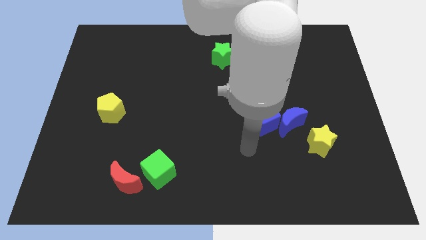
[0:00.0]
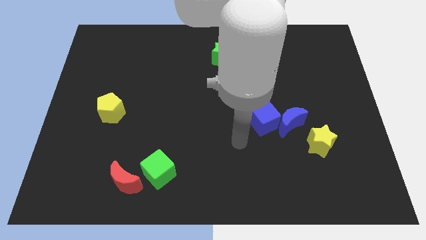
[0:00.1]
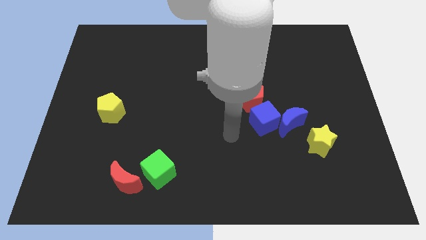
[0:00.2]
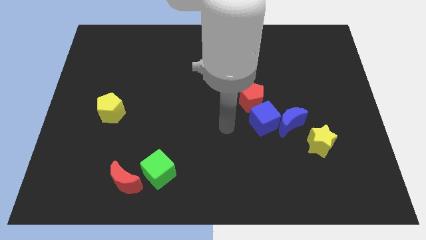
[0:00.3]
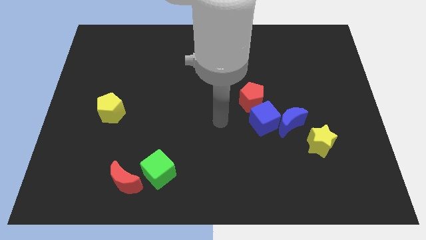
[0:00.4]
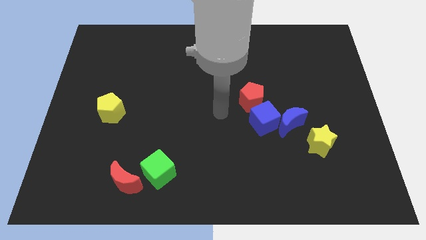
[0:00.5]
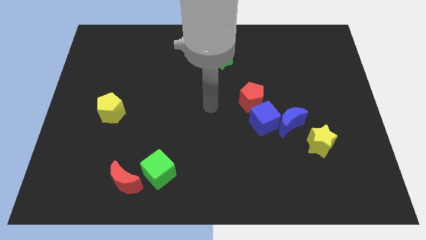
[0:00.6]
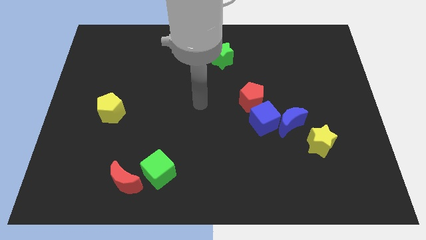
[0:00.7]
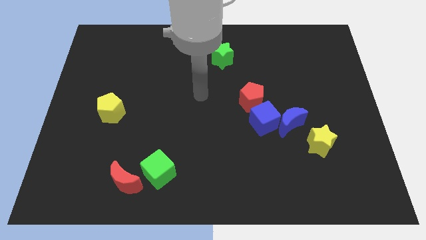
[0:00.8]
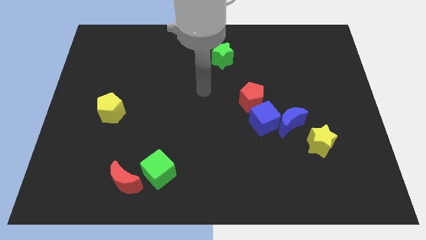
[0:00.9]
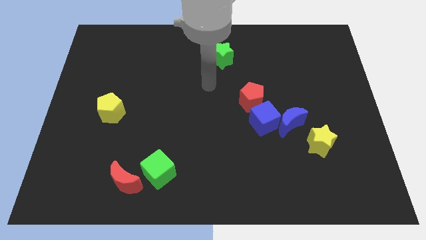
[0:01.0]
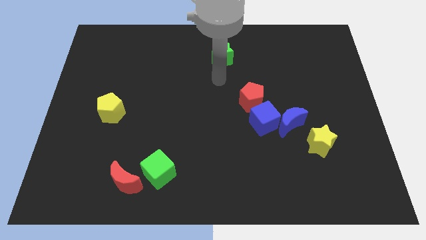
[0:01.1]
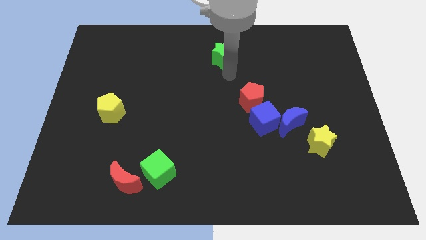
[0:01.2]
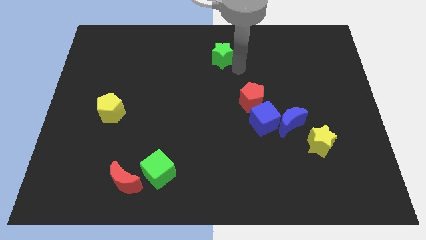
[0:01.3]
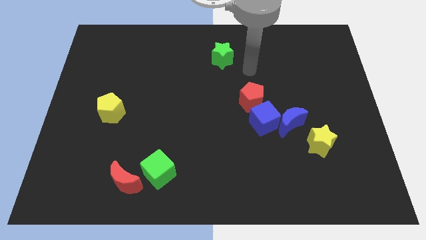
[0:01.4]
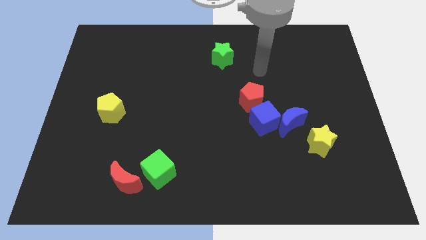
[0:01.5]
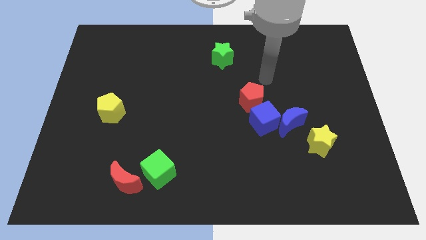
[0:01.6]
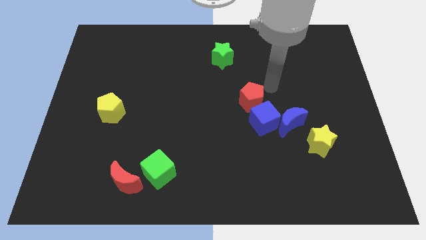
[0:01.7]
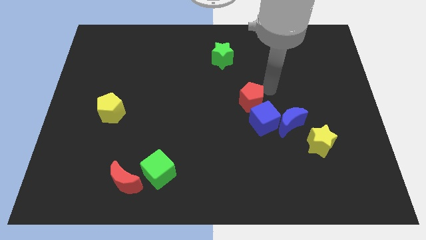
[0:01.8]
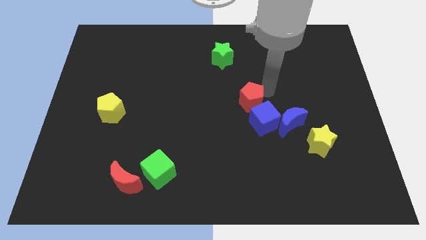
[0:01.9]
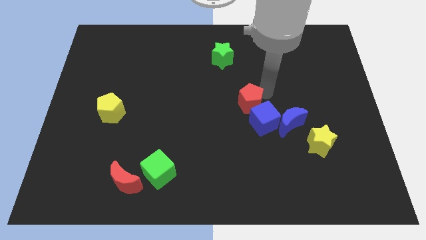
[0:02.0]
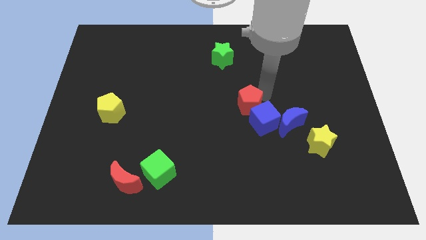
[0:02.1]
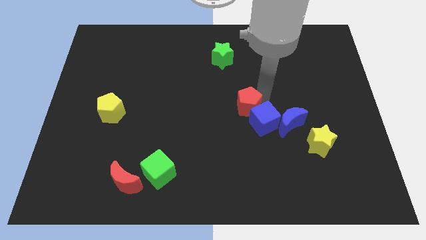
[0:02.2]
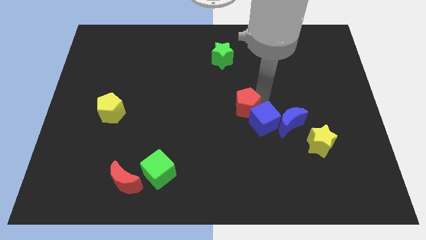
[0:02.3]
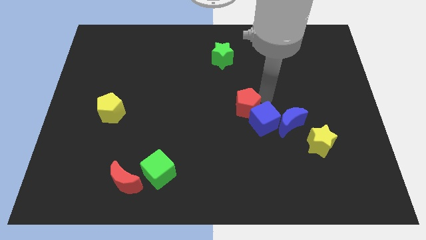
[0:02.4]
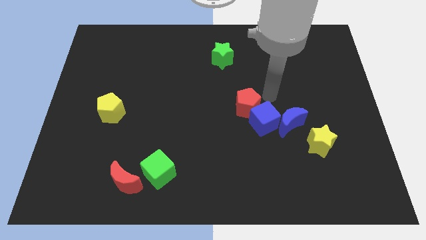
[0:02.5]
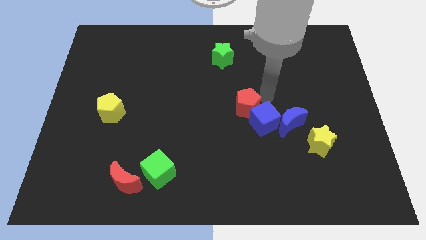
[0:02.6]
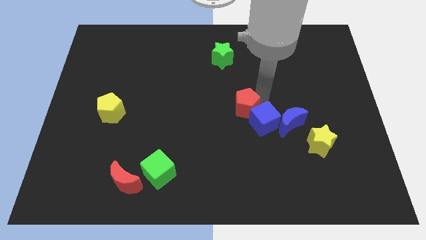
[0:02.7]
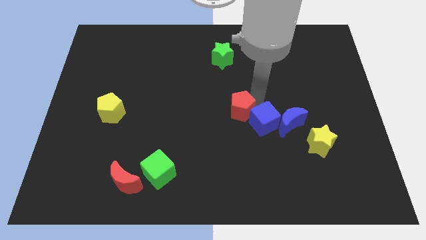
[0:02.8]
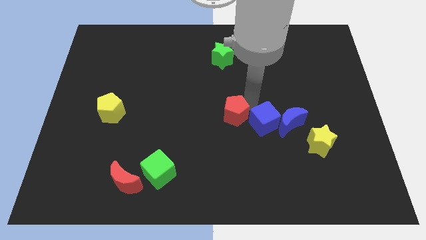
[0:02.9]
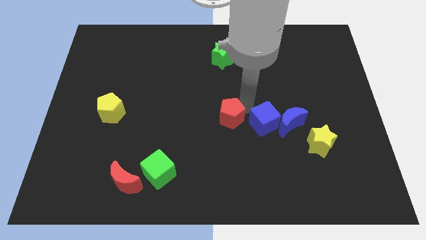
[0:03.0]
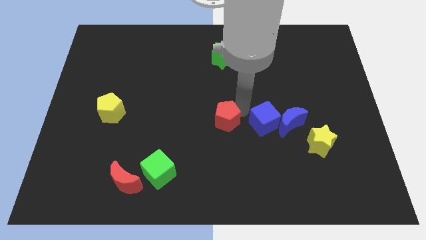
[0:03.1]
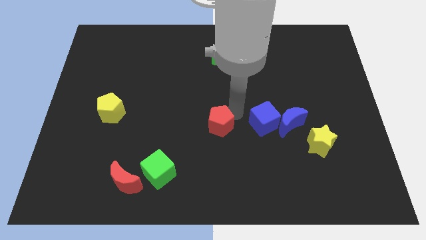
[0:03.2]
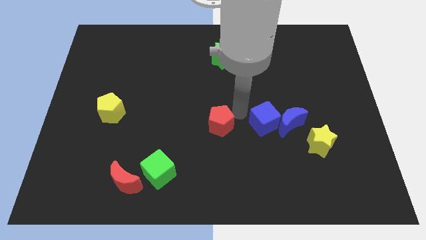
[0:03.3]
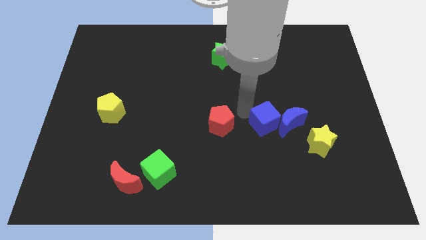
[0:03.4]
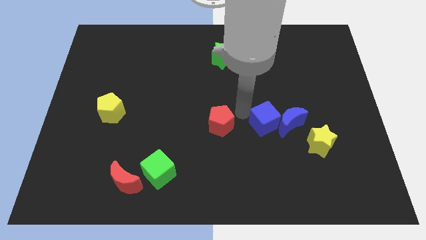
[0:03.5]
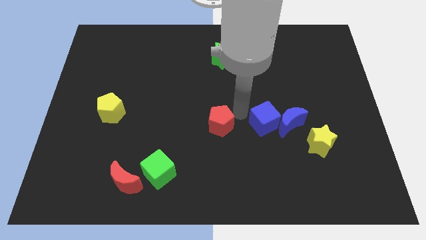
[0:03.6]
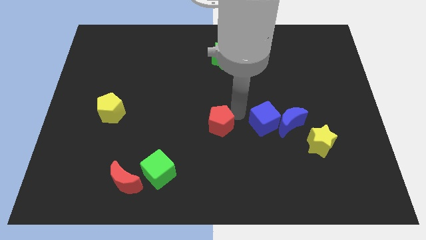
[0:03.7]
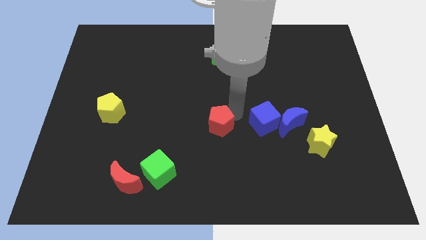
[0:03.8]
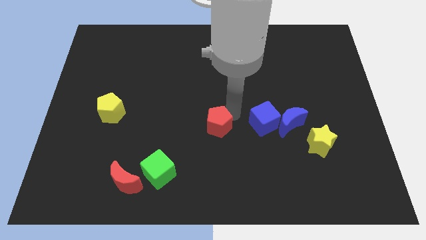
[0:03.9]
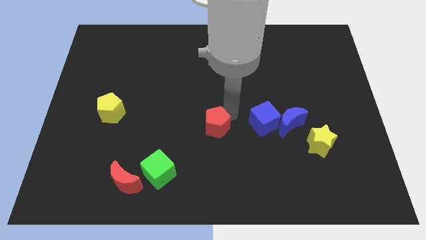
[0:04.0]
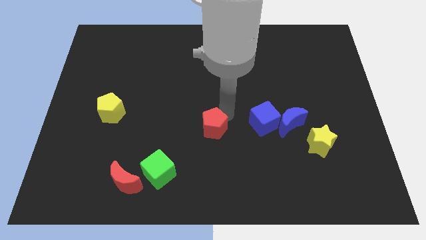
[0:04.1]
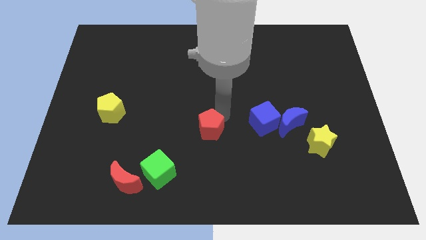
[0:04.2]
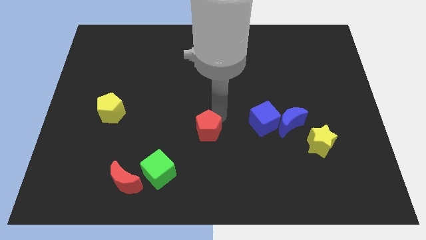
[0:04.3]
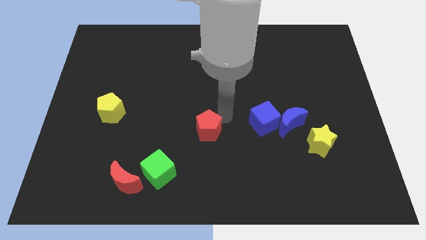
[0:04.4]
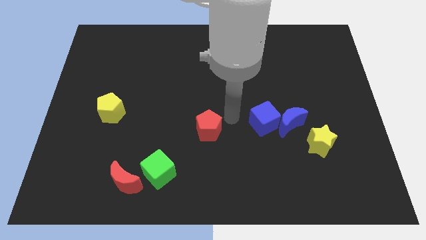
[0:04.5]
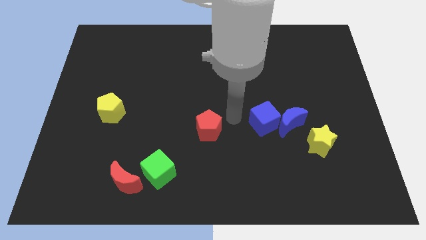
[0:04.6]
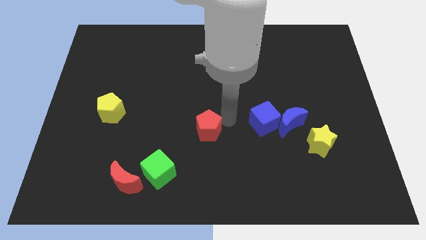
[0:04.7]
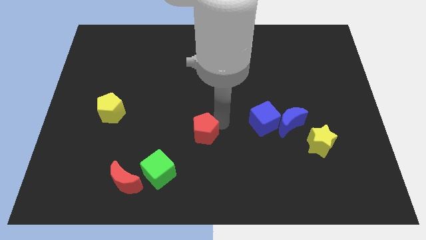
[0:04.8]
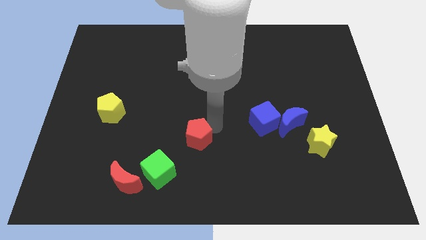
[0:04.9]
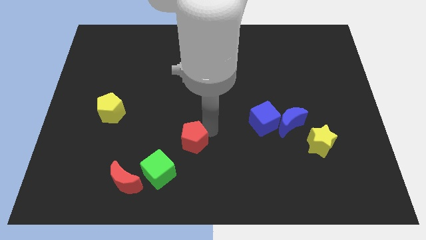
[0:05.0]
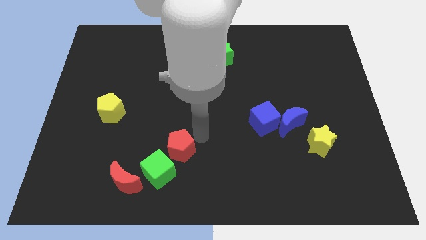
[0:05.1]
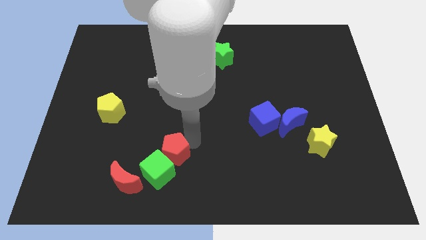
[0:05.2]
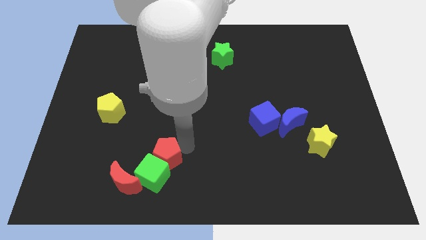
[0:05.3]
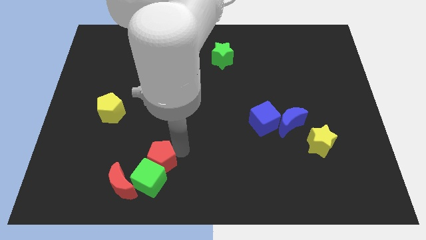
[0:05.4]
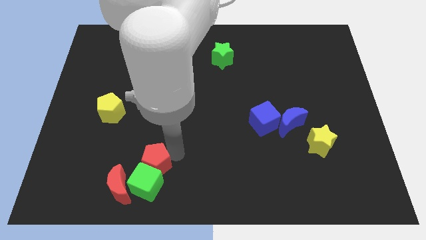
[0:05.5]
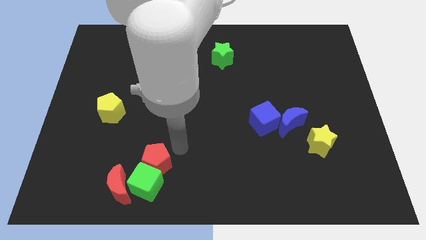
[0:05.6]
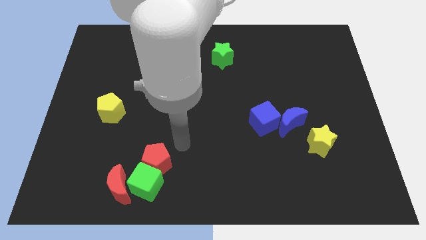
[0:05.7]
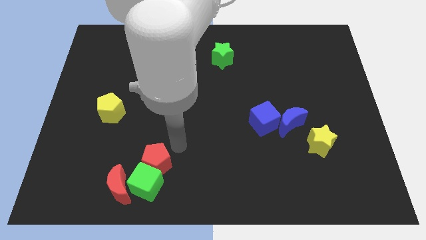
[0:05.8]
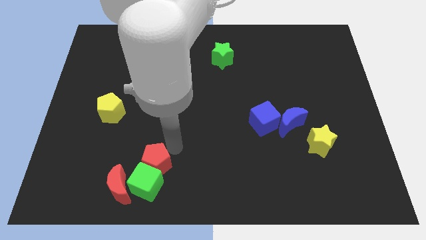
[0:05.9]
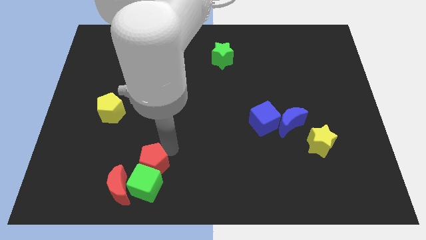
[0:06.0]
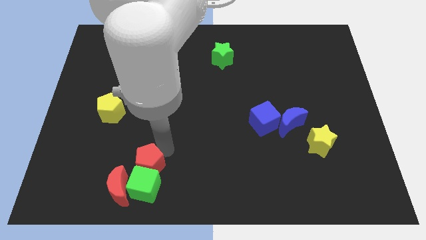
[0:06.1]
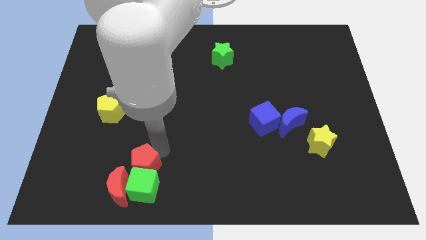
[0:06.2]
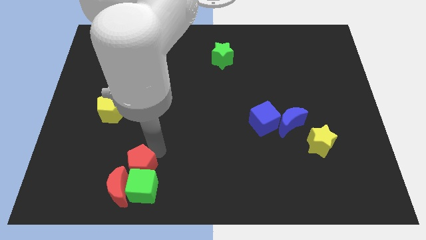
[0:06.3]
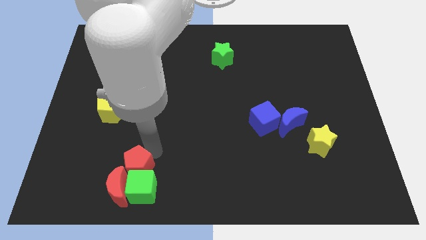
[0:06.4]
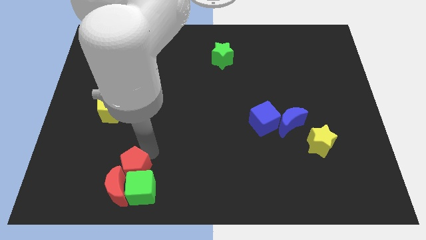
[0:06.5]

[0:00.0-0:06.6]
move the red pentagon to the red moon
